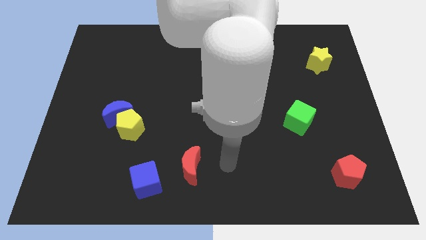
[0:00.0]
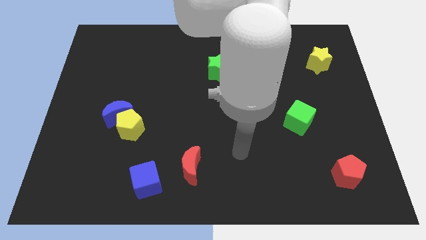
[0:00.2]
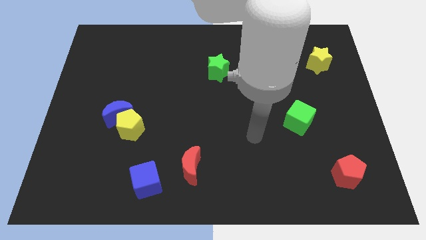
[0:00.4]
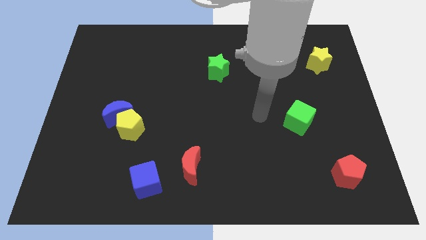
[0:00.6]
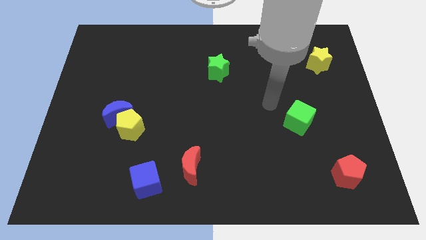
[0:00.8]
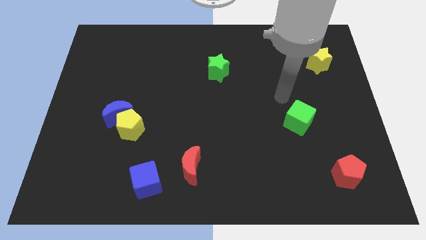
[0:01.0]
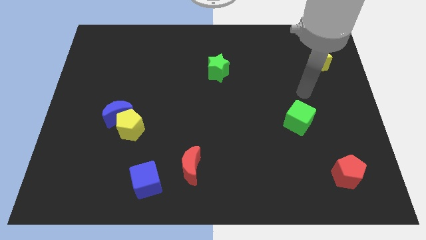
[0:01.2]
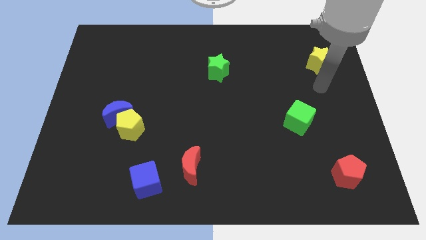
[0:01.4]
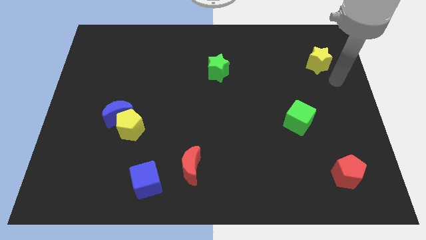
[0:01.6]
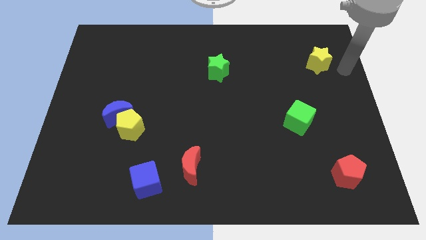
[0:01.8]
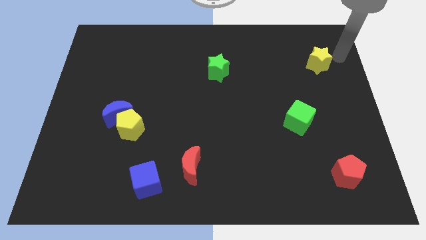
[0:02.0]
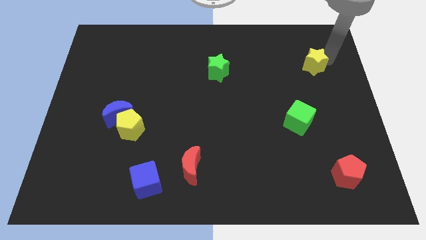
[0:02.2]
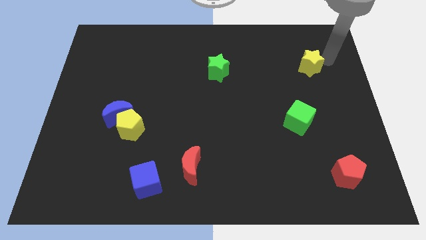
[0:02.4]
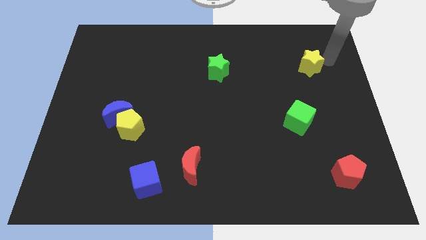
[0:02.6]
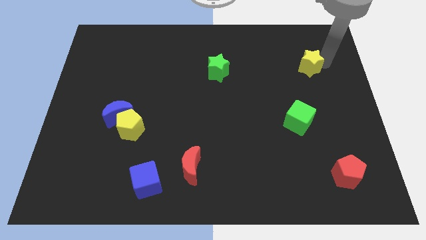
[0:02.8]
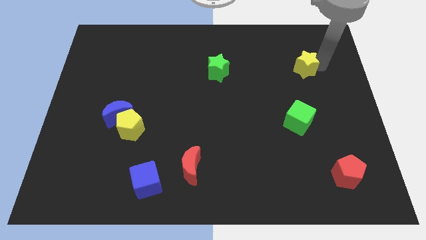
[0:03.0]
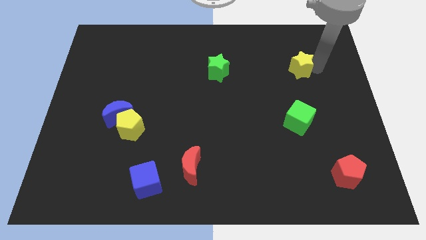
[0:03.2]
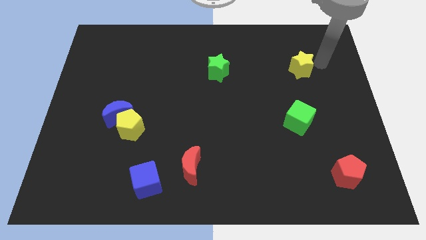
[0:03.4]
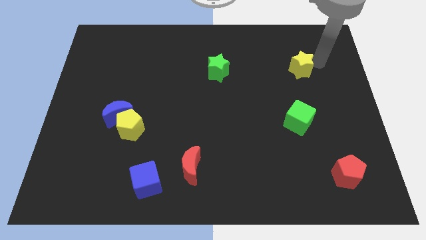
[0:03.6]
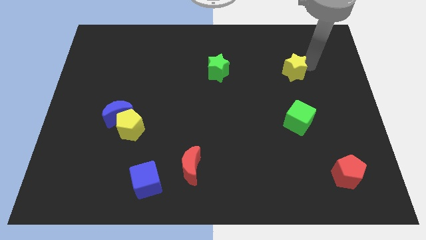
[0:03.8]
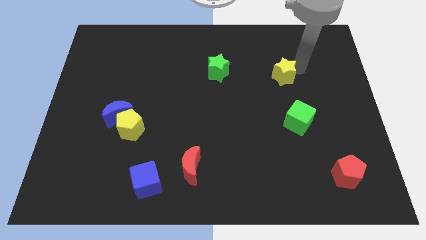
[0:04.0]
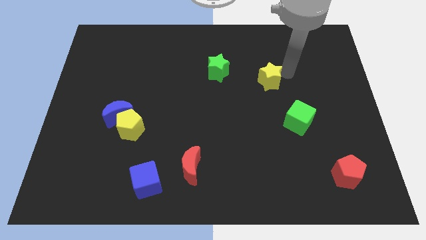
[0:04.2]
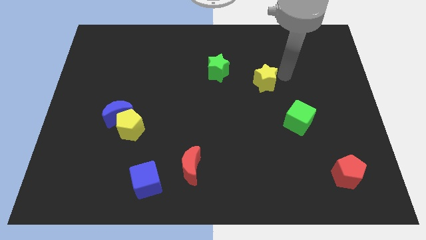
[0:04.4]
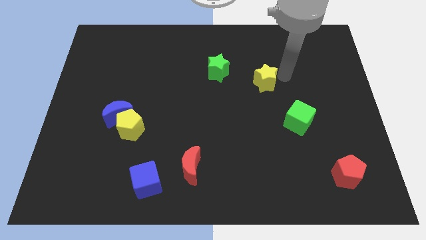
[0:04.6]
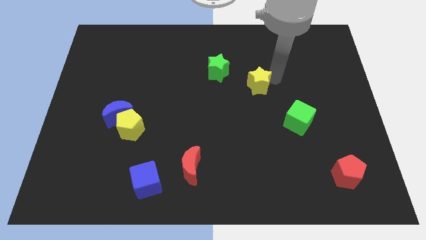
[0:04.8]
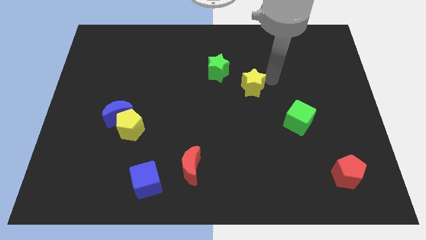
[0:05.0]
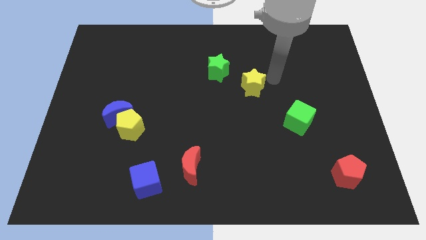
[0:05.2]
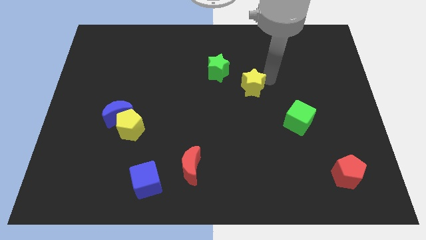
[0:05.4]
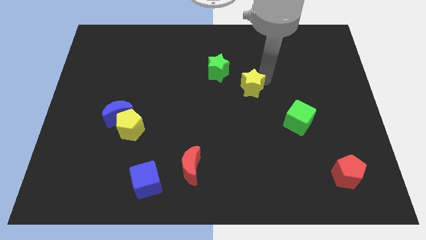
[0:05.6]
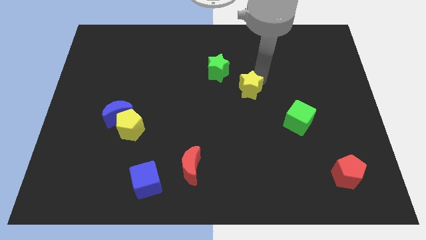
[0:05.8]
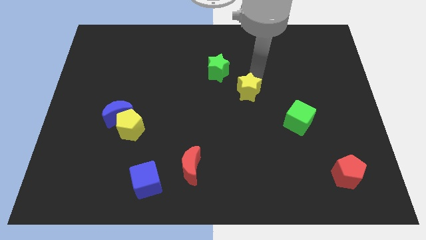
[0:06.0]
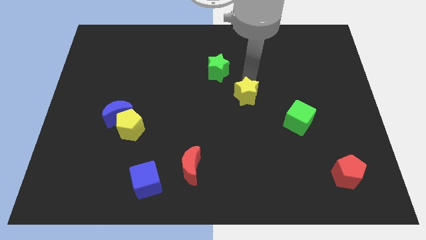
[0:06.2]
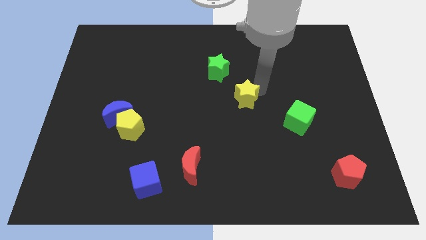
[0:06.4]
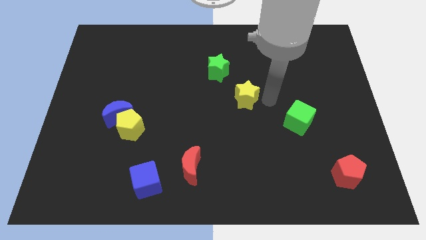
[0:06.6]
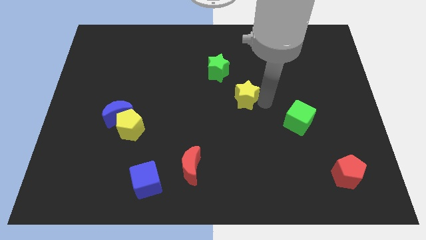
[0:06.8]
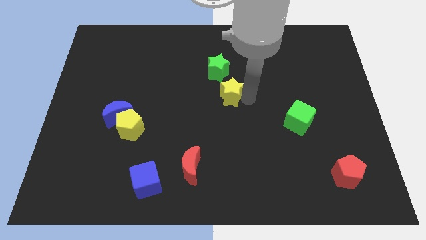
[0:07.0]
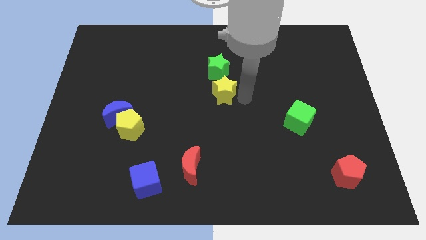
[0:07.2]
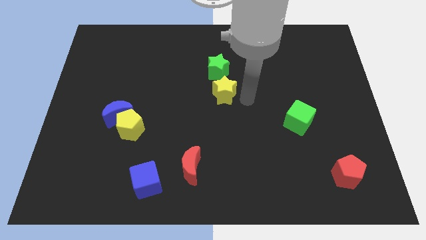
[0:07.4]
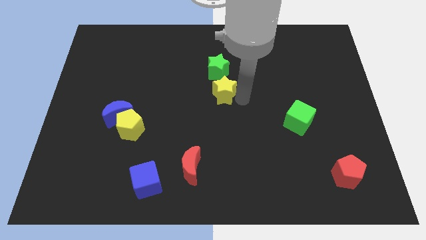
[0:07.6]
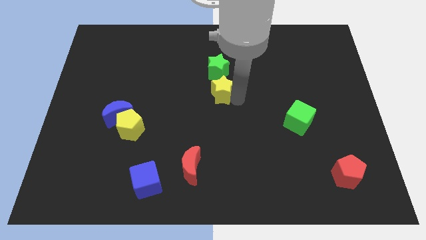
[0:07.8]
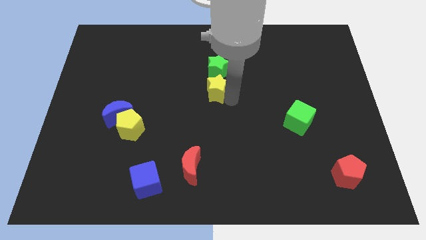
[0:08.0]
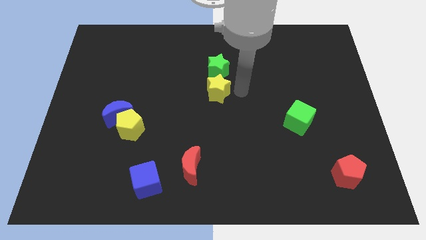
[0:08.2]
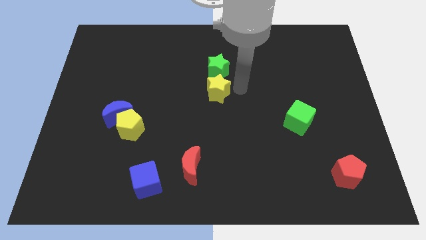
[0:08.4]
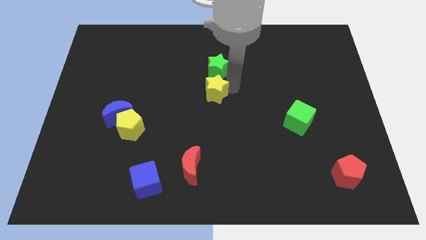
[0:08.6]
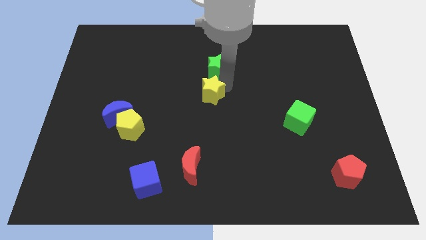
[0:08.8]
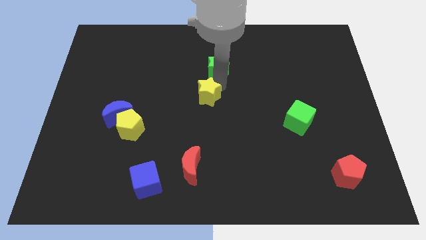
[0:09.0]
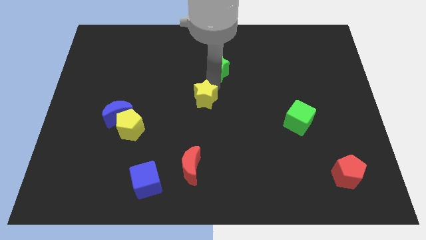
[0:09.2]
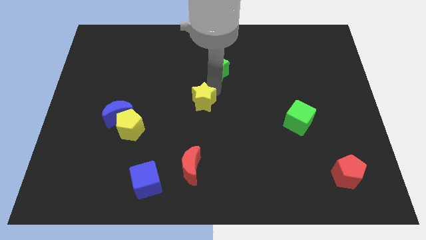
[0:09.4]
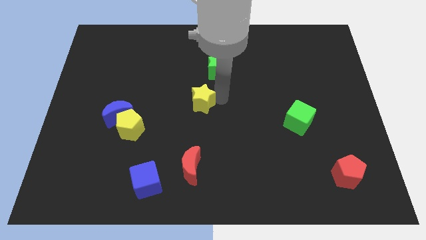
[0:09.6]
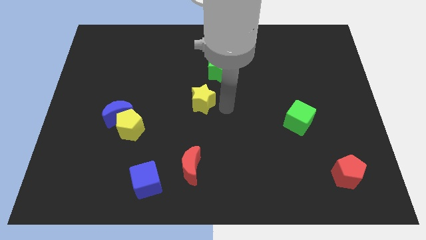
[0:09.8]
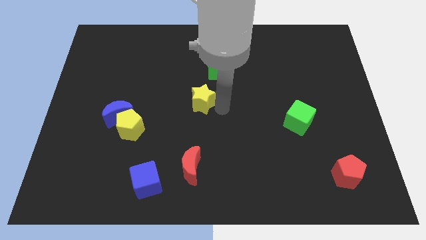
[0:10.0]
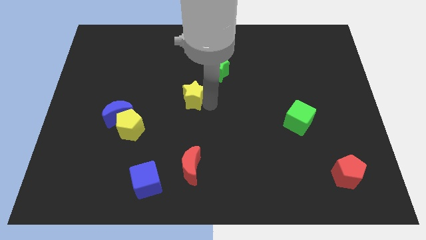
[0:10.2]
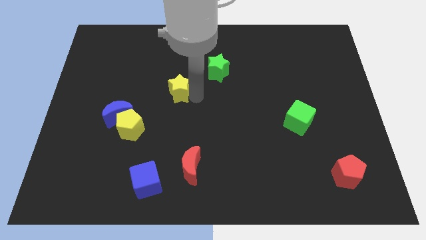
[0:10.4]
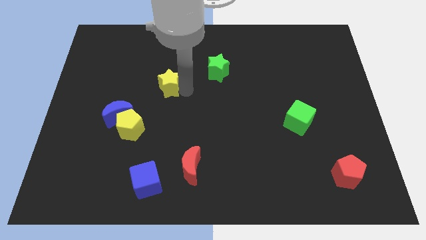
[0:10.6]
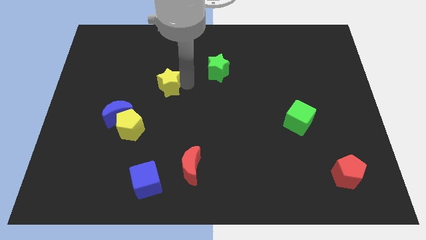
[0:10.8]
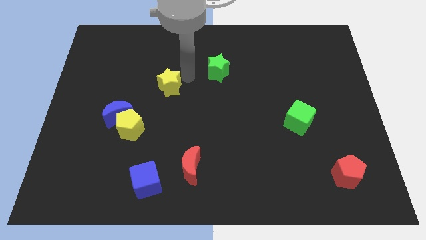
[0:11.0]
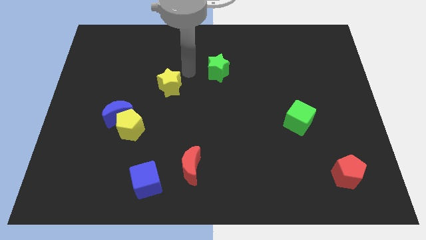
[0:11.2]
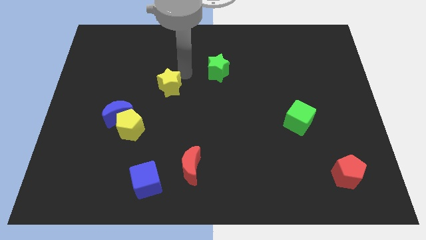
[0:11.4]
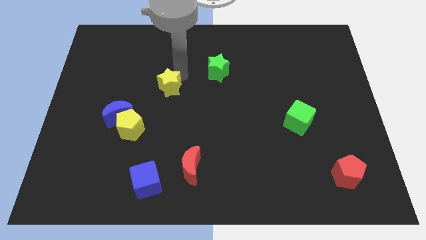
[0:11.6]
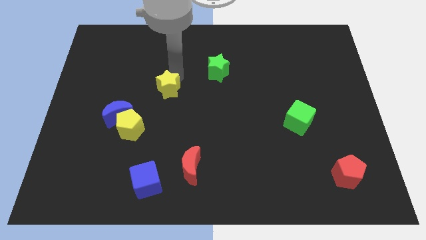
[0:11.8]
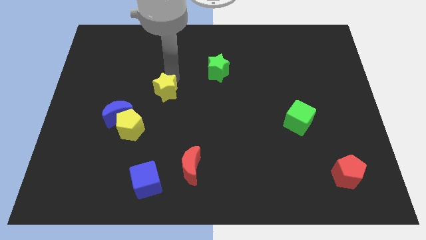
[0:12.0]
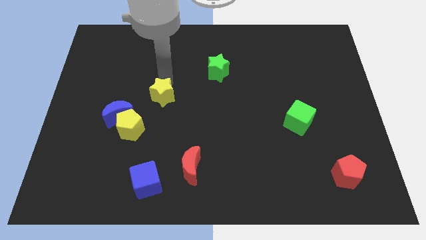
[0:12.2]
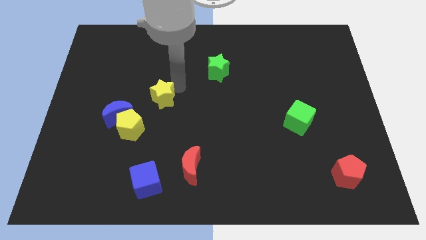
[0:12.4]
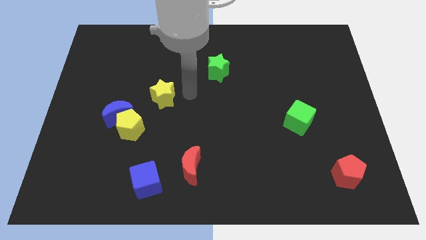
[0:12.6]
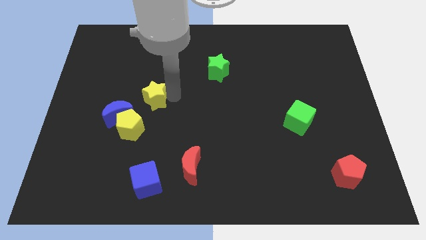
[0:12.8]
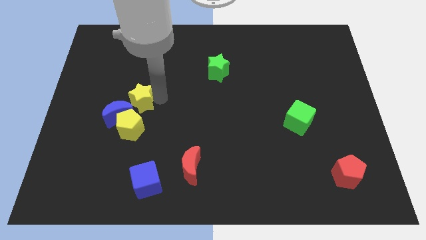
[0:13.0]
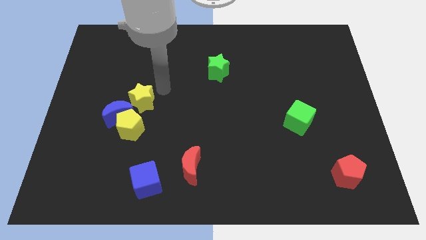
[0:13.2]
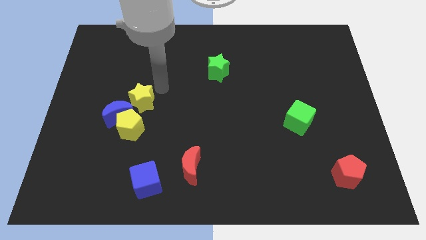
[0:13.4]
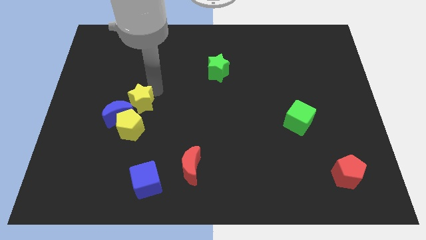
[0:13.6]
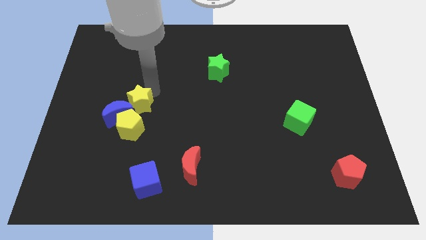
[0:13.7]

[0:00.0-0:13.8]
put the yellow star towards the blue moon

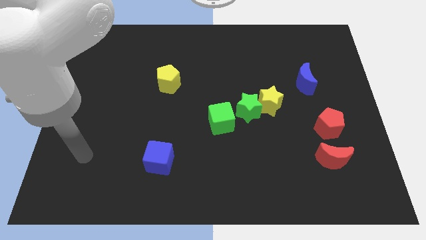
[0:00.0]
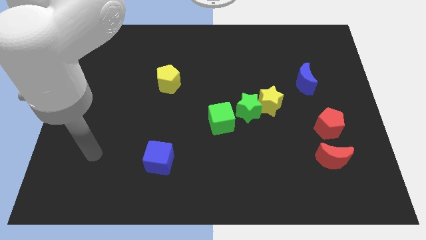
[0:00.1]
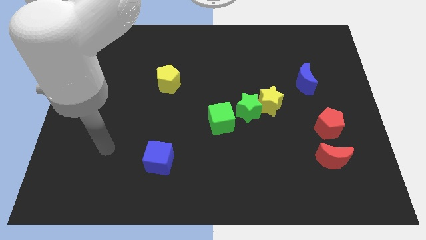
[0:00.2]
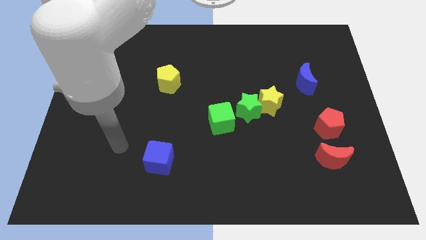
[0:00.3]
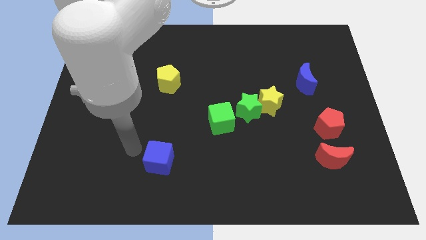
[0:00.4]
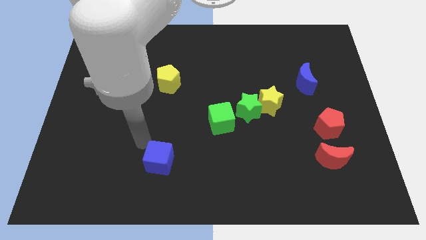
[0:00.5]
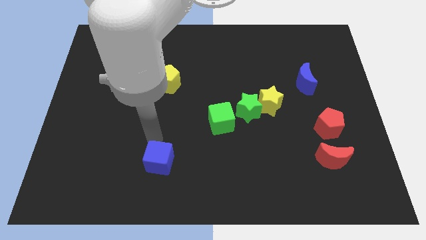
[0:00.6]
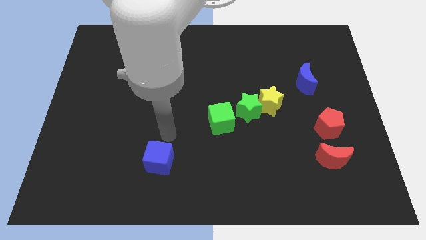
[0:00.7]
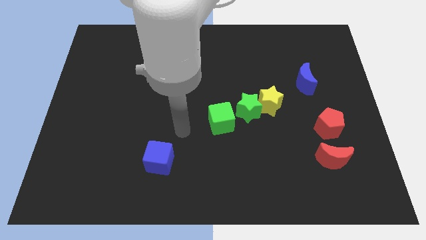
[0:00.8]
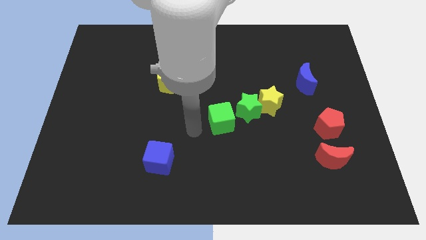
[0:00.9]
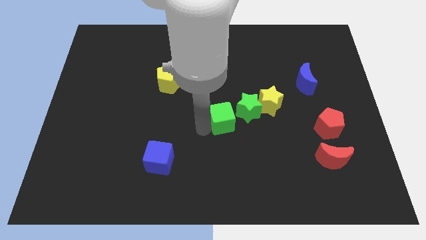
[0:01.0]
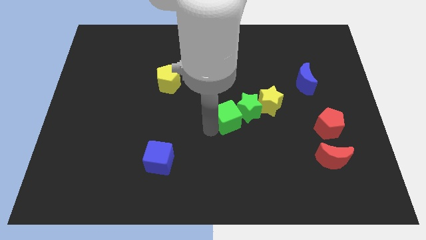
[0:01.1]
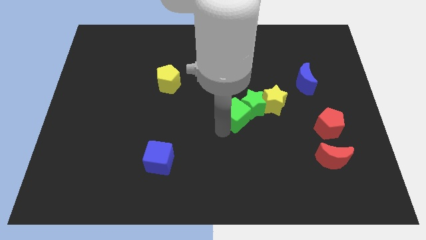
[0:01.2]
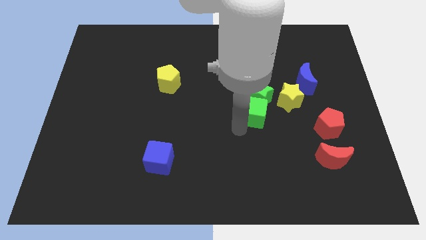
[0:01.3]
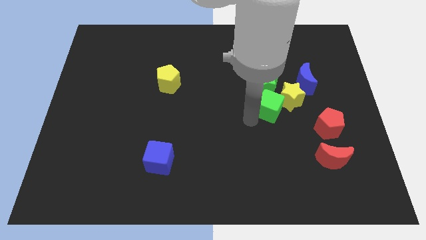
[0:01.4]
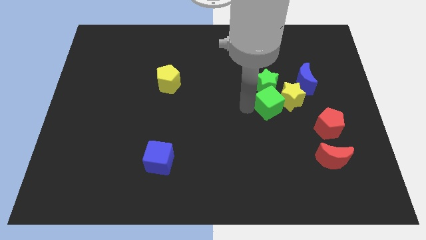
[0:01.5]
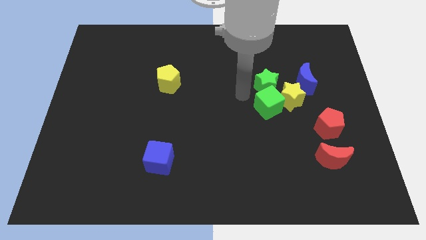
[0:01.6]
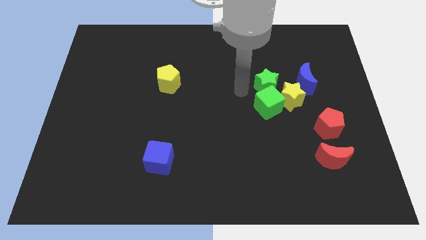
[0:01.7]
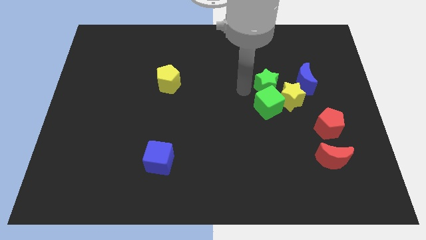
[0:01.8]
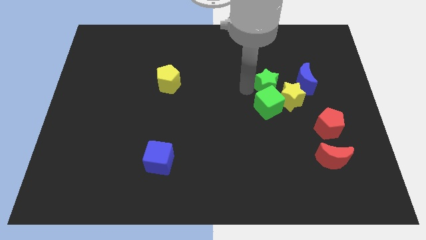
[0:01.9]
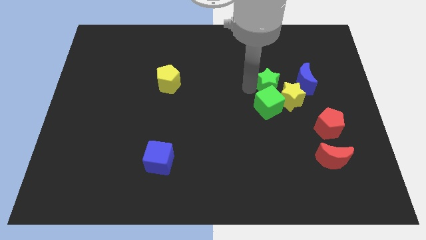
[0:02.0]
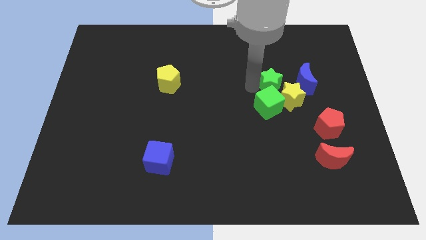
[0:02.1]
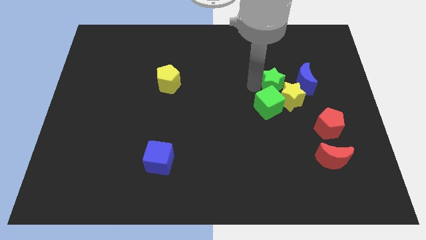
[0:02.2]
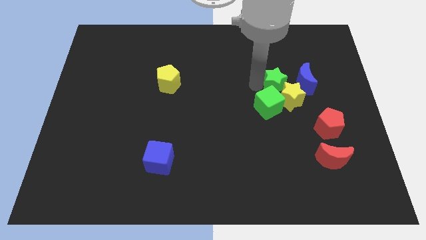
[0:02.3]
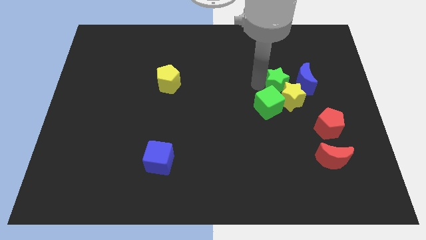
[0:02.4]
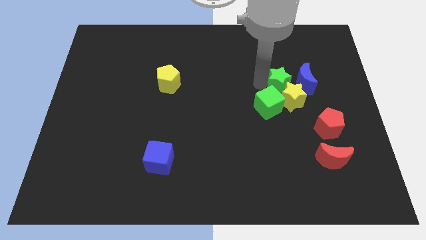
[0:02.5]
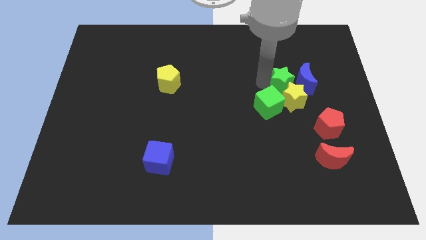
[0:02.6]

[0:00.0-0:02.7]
slide the green star towards the blue moon
